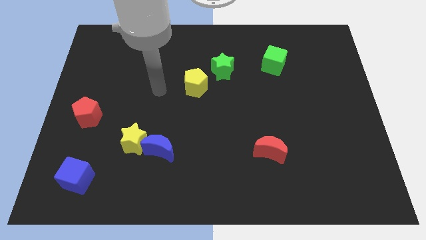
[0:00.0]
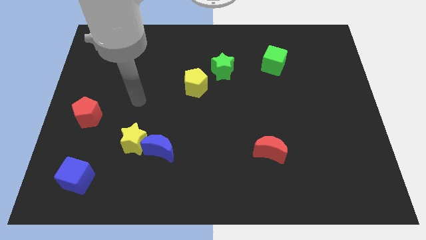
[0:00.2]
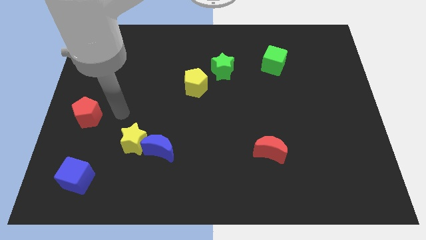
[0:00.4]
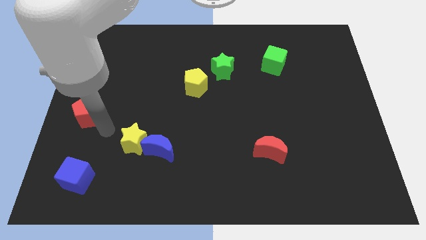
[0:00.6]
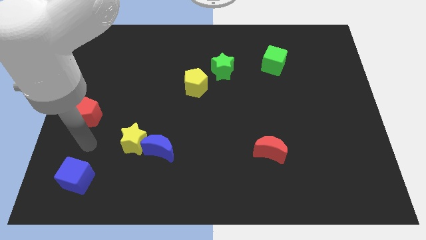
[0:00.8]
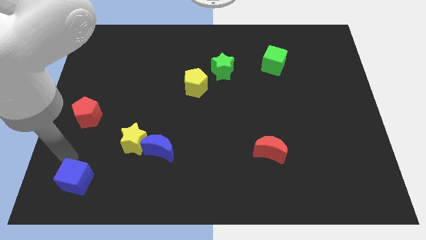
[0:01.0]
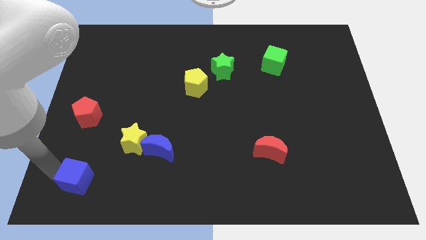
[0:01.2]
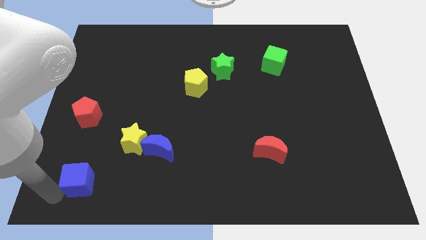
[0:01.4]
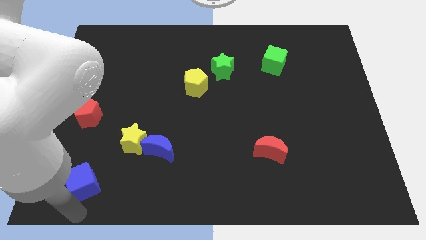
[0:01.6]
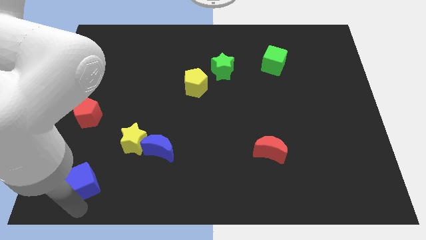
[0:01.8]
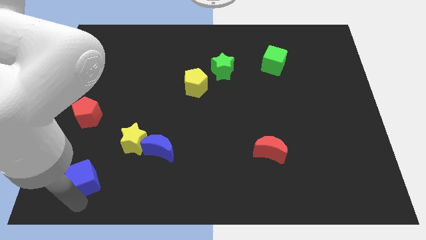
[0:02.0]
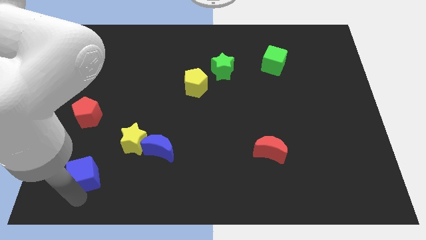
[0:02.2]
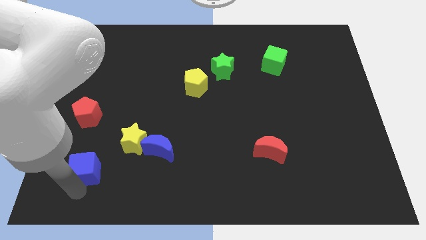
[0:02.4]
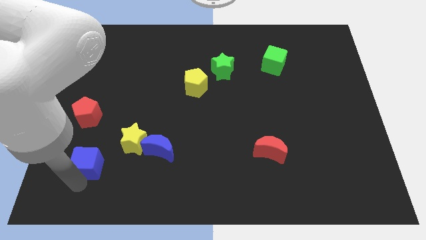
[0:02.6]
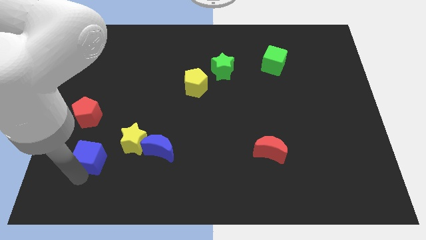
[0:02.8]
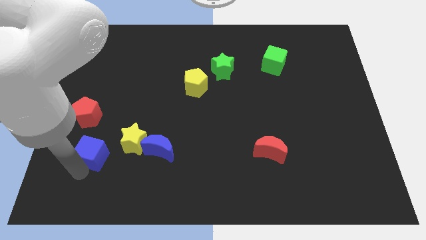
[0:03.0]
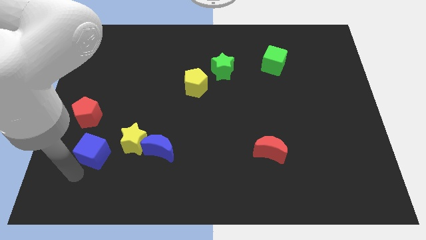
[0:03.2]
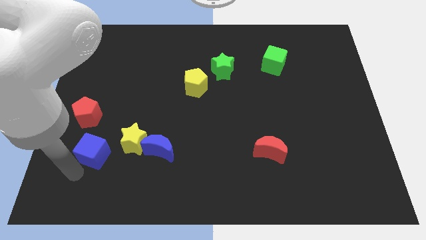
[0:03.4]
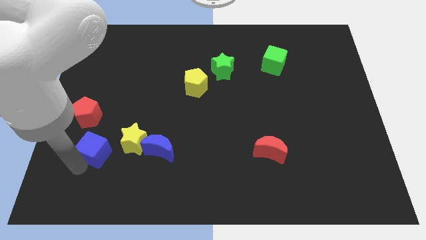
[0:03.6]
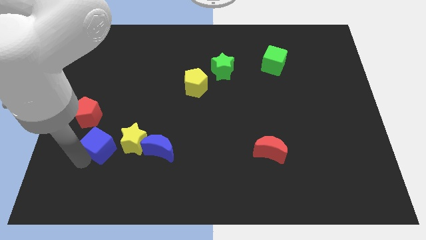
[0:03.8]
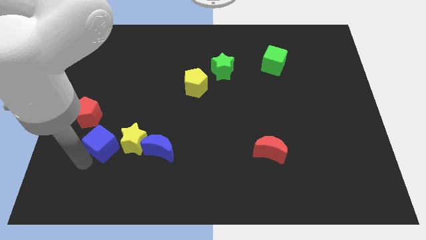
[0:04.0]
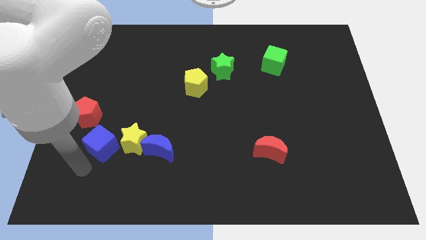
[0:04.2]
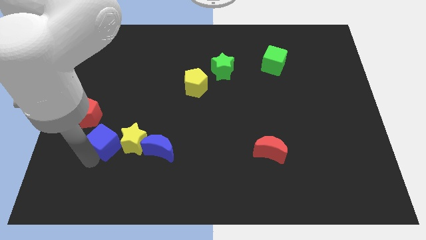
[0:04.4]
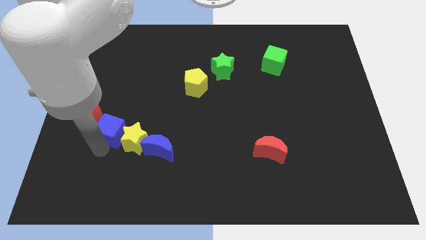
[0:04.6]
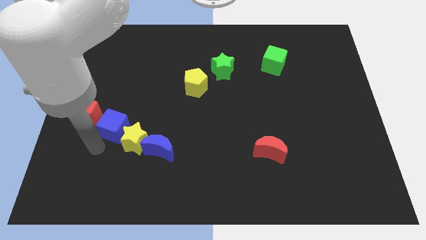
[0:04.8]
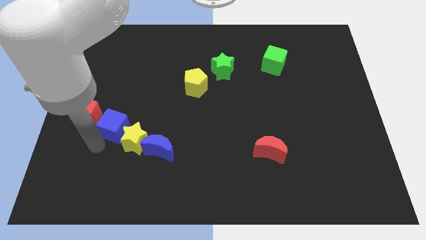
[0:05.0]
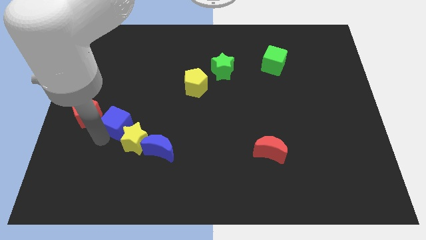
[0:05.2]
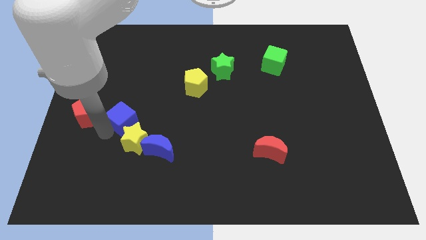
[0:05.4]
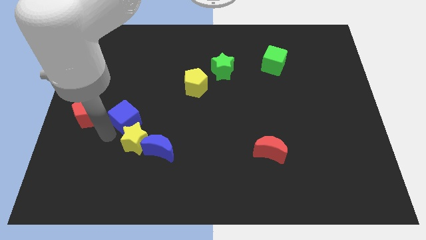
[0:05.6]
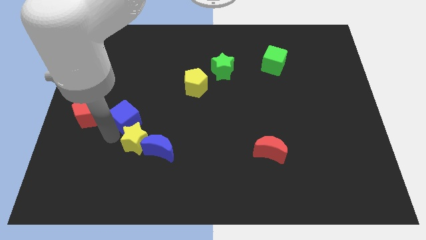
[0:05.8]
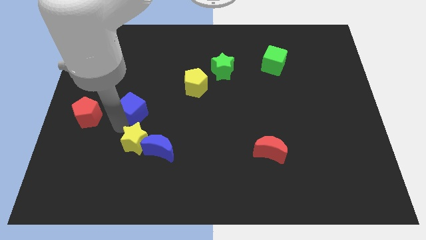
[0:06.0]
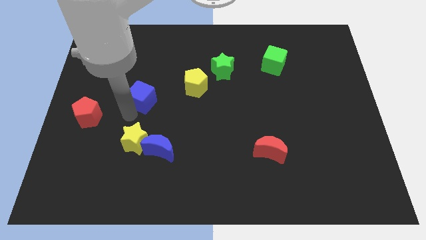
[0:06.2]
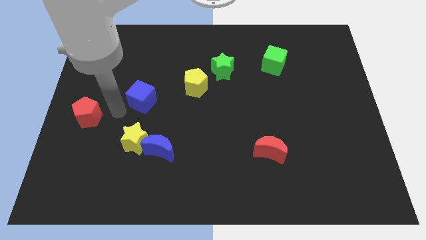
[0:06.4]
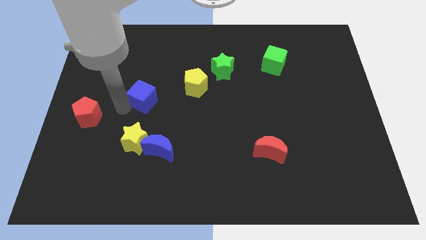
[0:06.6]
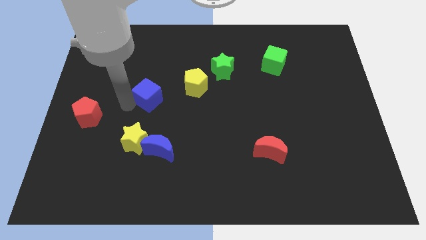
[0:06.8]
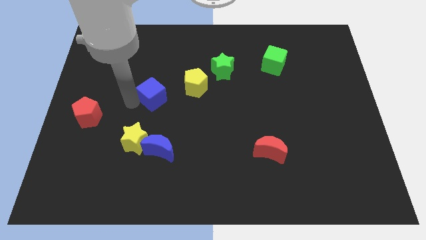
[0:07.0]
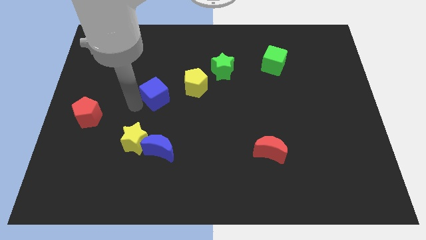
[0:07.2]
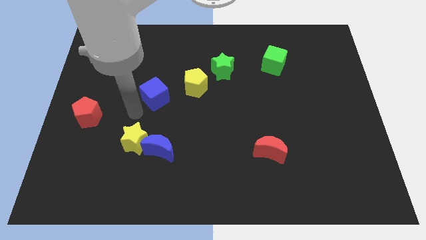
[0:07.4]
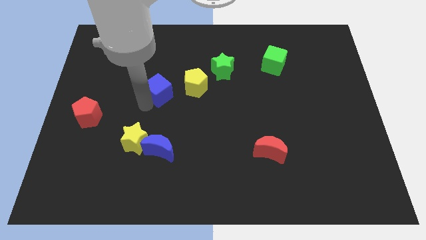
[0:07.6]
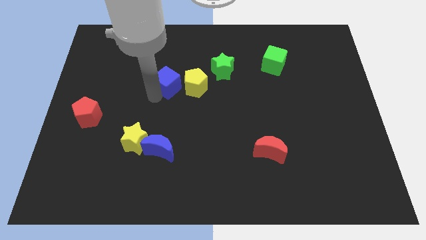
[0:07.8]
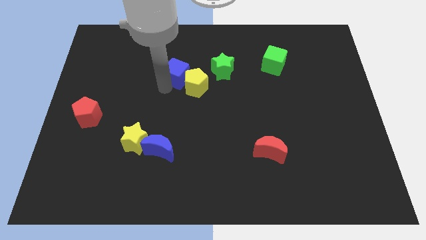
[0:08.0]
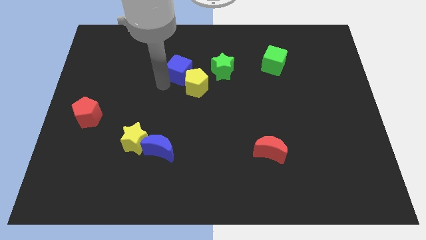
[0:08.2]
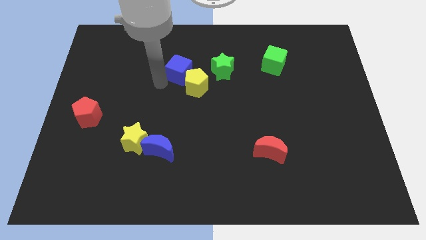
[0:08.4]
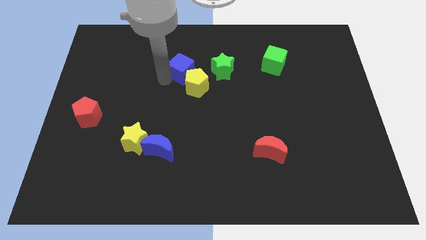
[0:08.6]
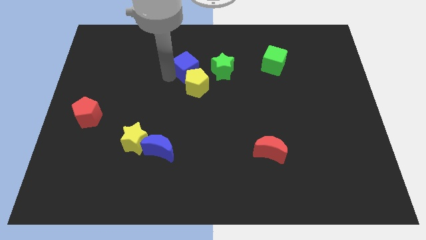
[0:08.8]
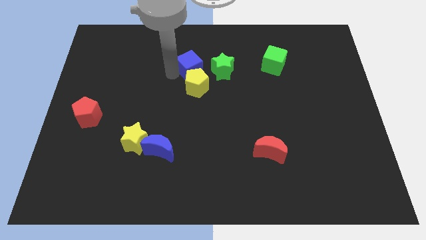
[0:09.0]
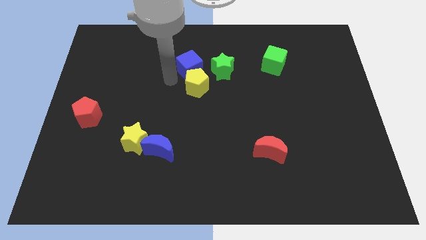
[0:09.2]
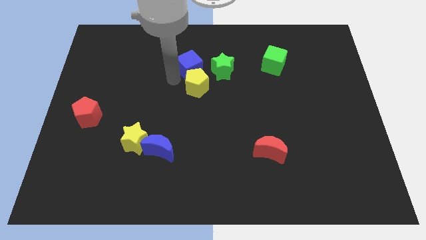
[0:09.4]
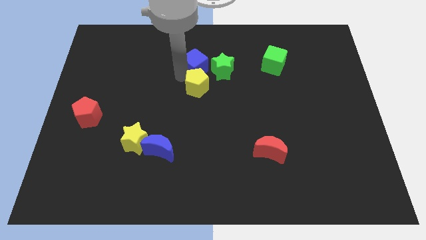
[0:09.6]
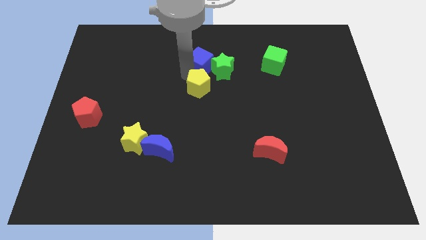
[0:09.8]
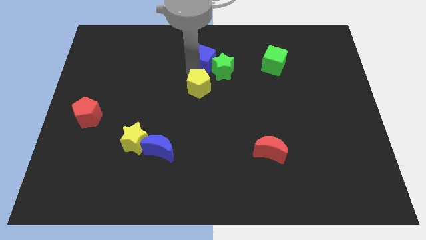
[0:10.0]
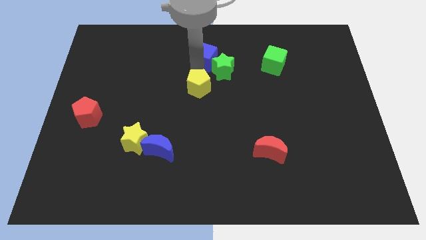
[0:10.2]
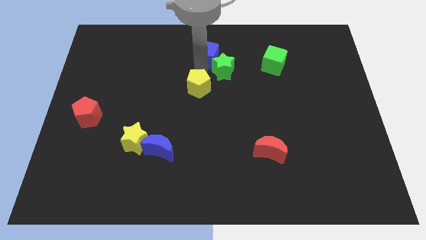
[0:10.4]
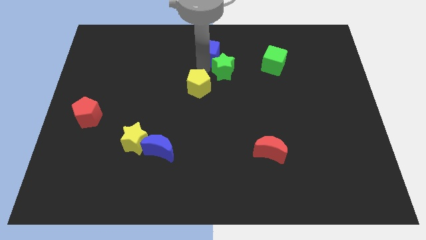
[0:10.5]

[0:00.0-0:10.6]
put the blue cube to the top

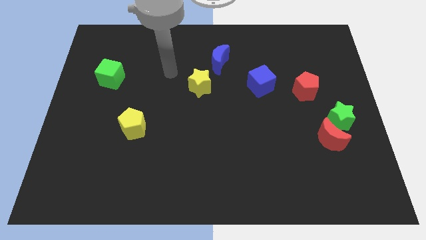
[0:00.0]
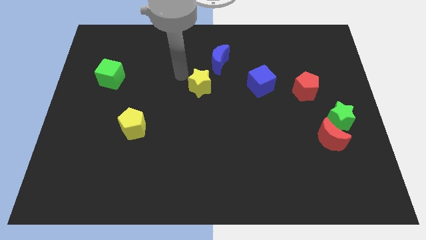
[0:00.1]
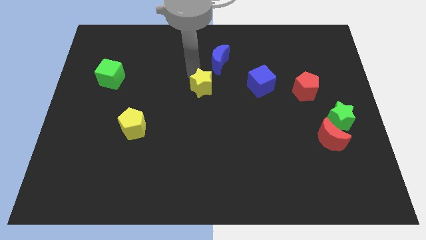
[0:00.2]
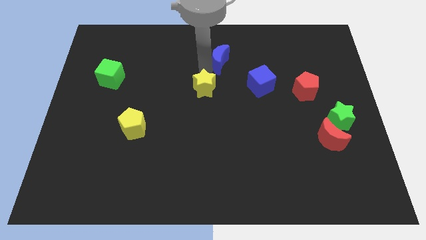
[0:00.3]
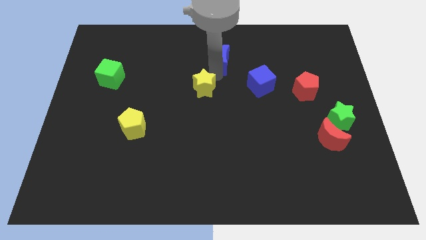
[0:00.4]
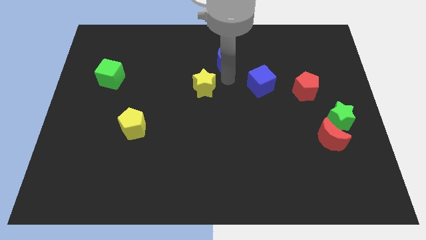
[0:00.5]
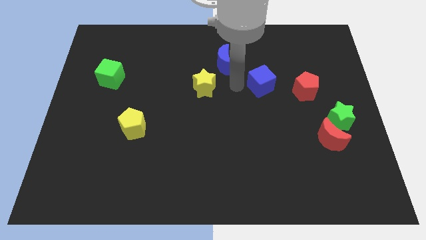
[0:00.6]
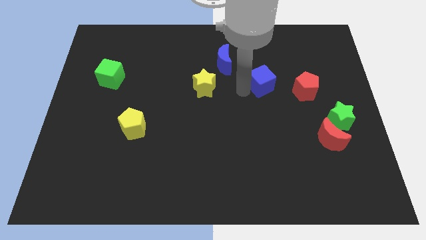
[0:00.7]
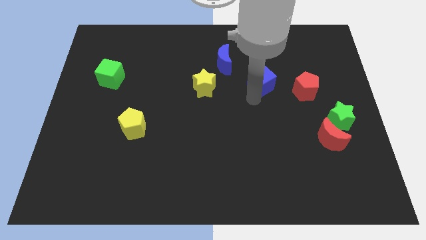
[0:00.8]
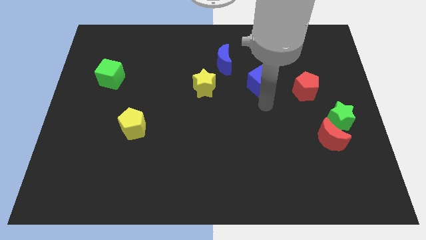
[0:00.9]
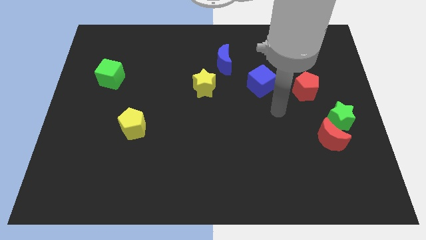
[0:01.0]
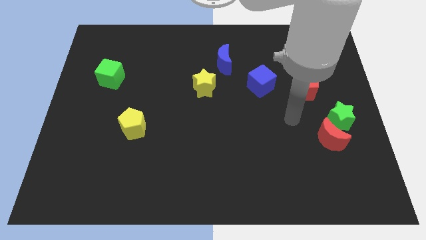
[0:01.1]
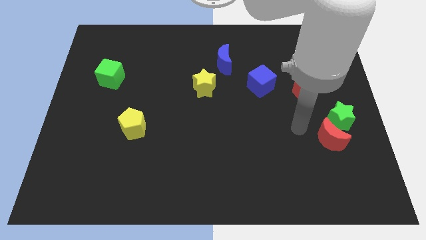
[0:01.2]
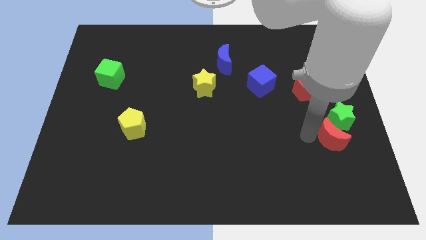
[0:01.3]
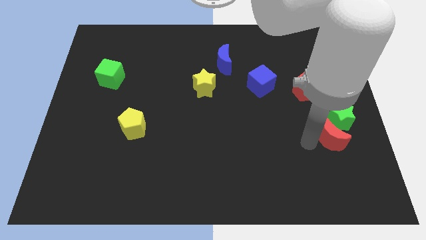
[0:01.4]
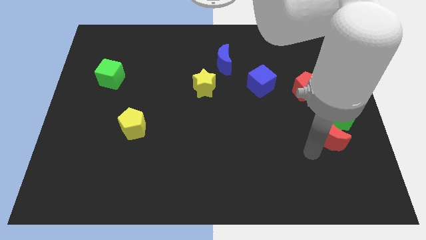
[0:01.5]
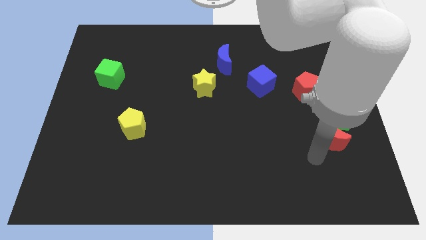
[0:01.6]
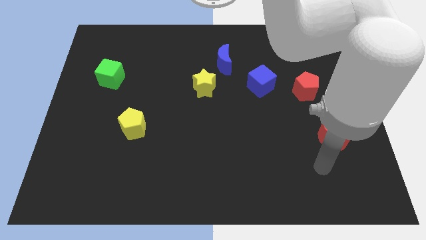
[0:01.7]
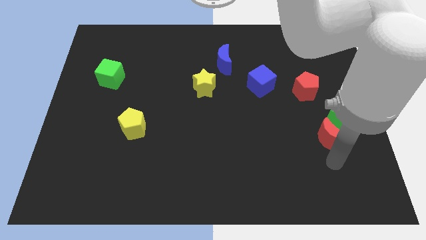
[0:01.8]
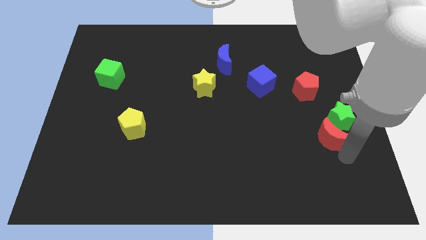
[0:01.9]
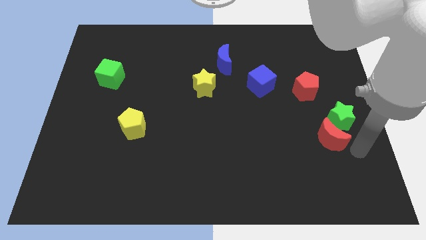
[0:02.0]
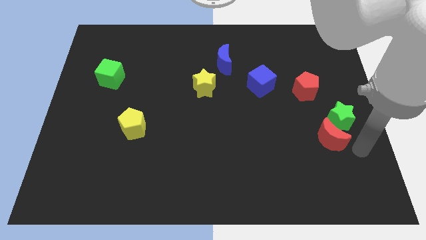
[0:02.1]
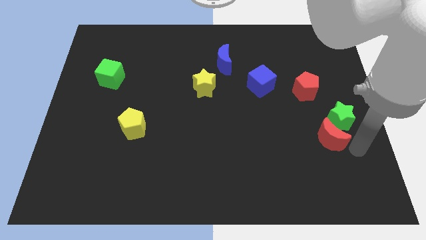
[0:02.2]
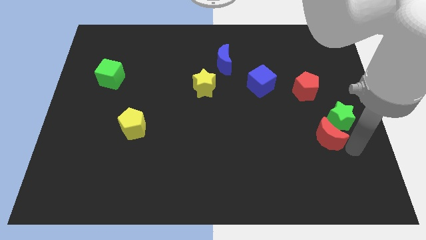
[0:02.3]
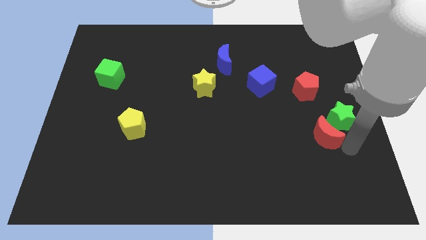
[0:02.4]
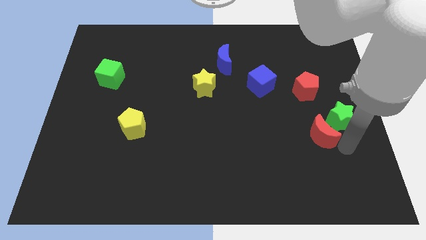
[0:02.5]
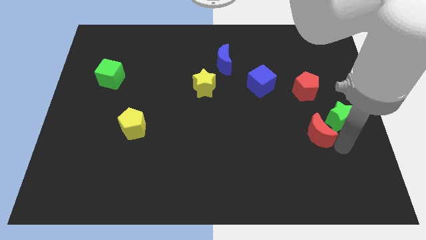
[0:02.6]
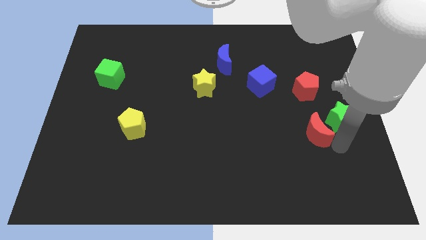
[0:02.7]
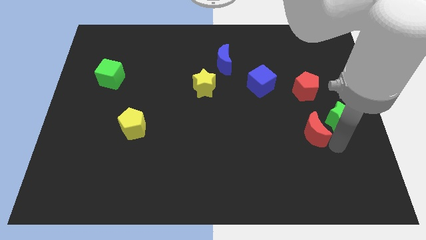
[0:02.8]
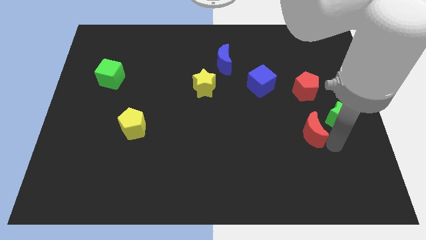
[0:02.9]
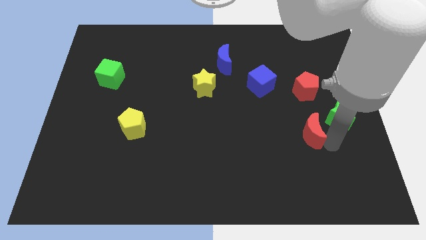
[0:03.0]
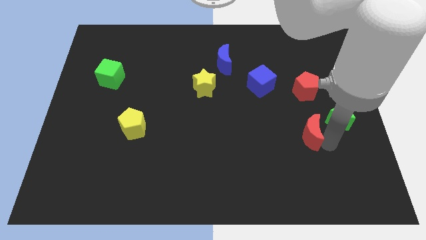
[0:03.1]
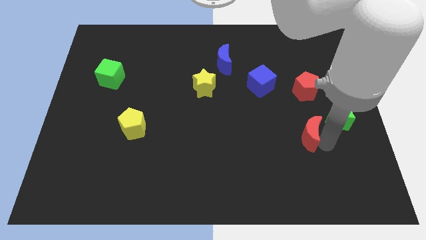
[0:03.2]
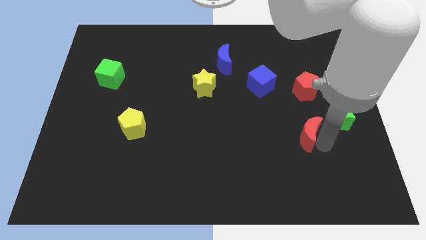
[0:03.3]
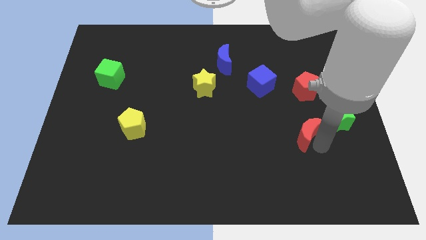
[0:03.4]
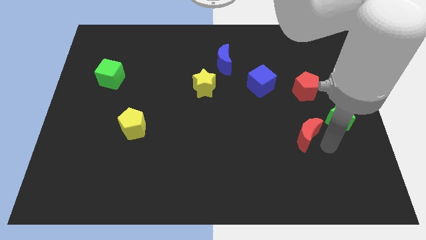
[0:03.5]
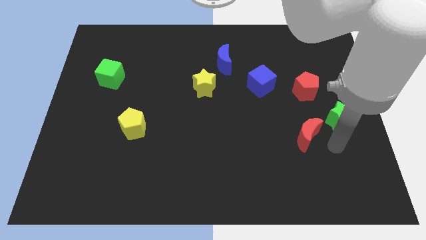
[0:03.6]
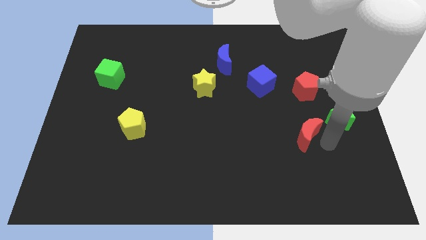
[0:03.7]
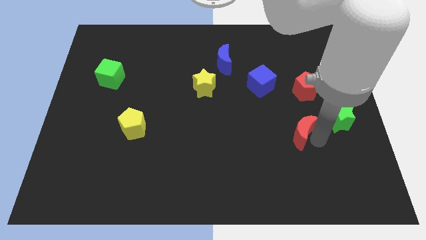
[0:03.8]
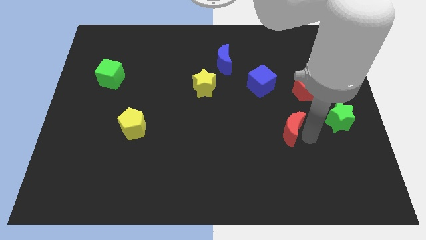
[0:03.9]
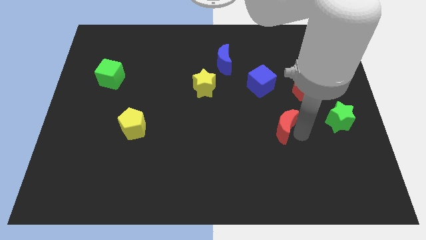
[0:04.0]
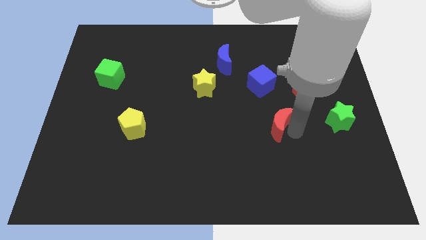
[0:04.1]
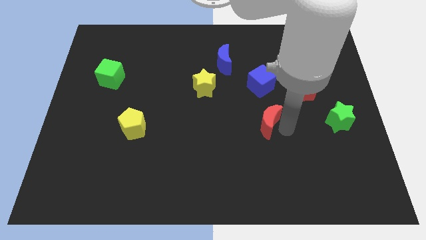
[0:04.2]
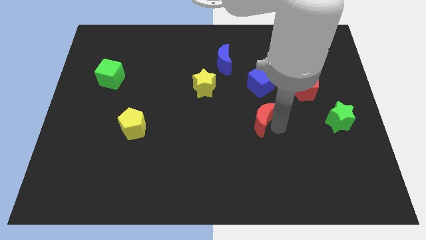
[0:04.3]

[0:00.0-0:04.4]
push the red moon to the middle
